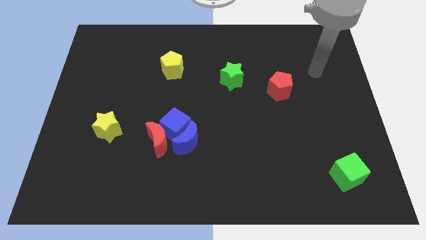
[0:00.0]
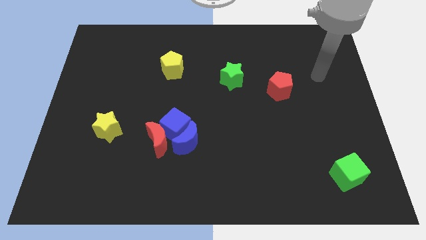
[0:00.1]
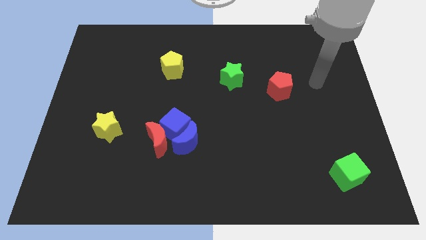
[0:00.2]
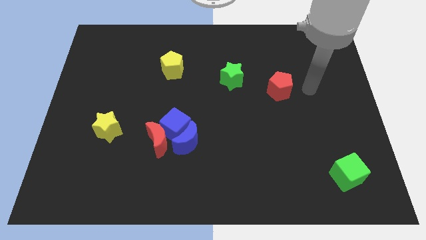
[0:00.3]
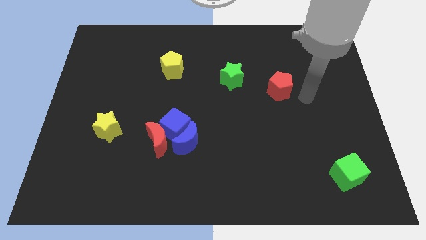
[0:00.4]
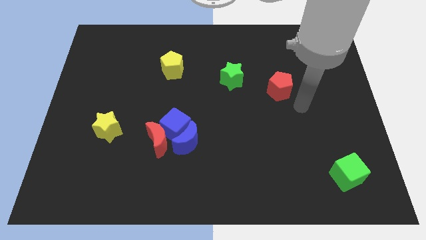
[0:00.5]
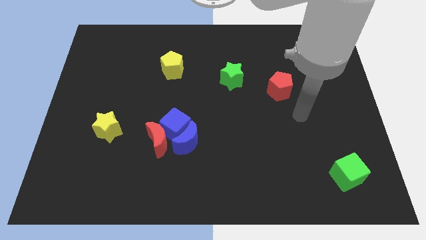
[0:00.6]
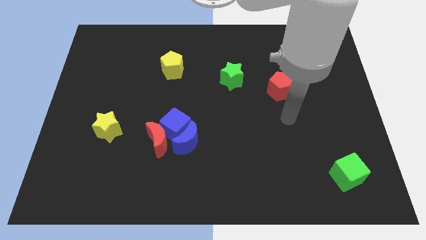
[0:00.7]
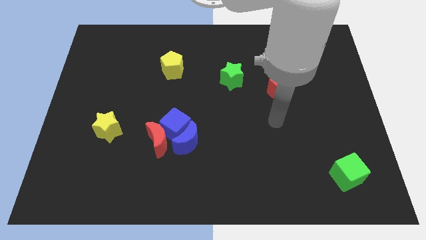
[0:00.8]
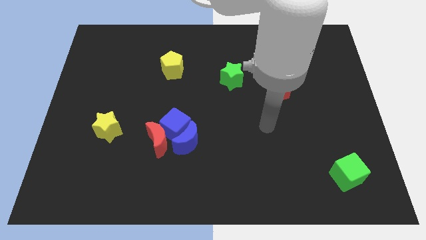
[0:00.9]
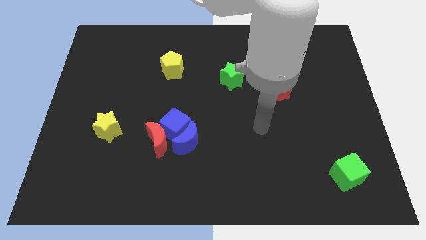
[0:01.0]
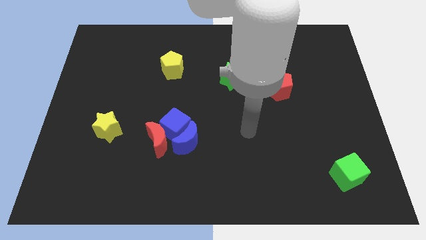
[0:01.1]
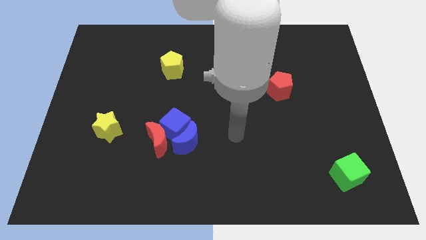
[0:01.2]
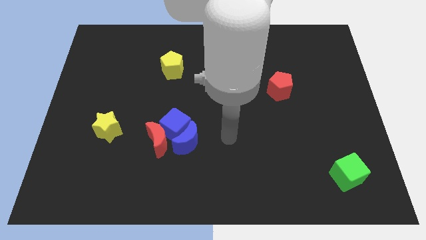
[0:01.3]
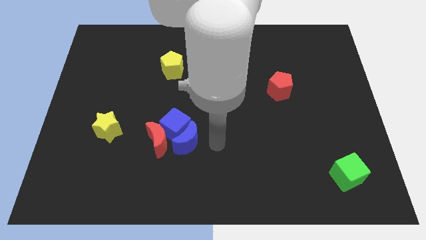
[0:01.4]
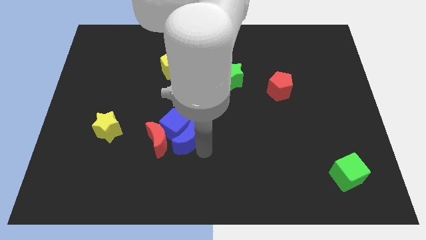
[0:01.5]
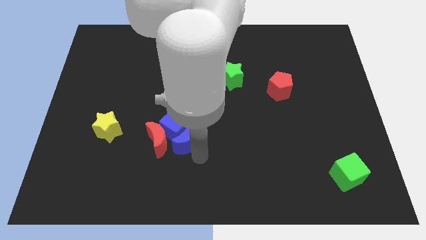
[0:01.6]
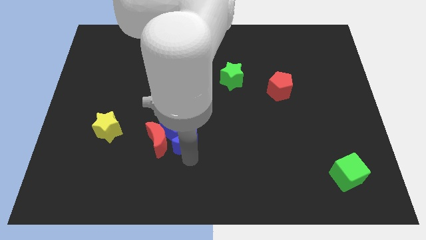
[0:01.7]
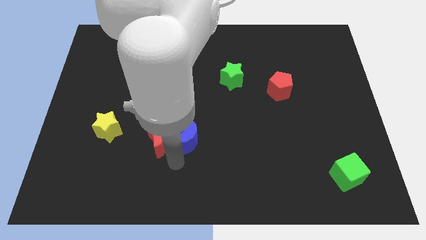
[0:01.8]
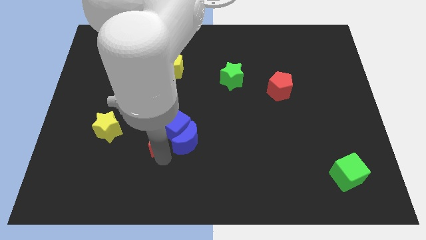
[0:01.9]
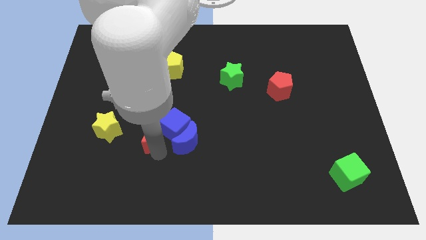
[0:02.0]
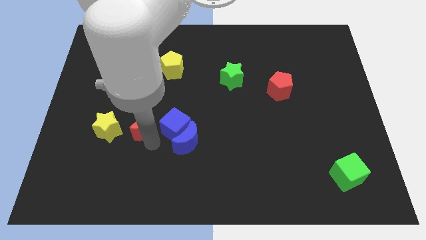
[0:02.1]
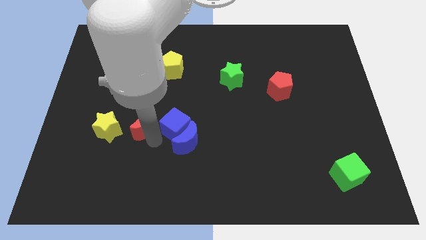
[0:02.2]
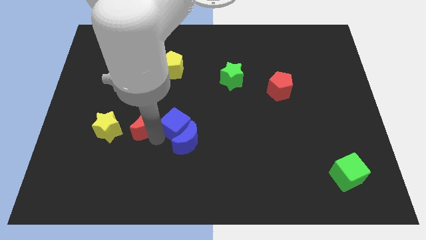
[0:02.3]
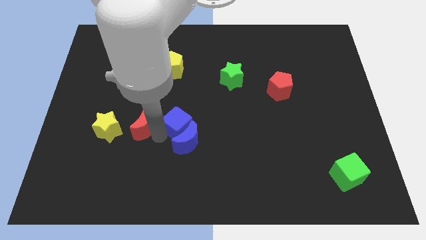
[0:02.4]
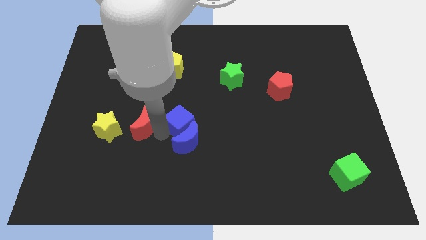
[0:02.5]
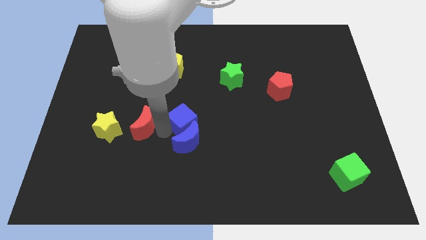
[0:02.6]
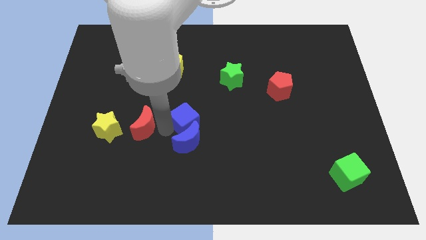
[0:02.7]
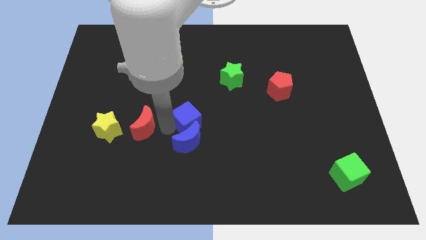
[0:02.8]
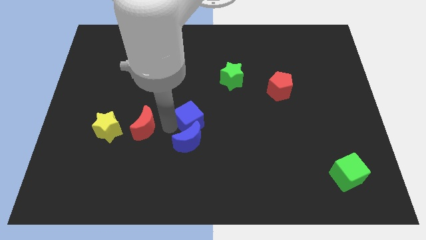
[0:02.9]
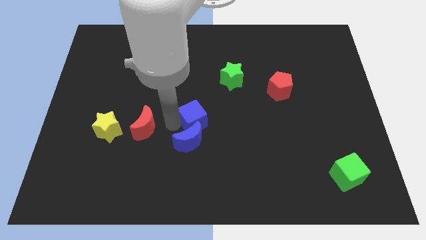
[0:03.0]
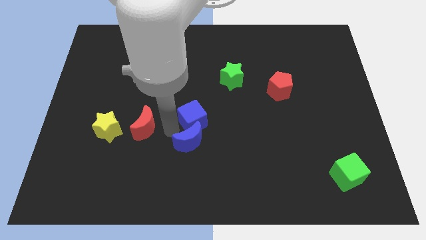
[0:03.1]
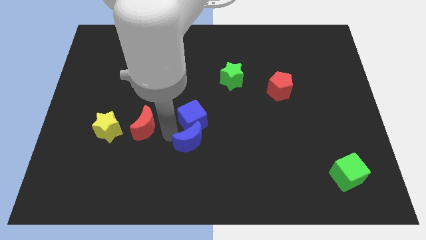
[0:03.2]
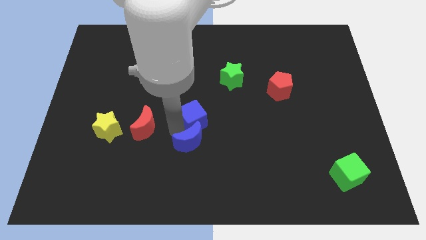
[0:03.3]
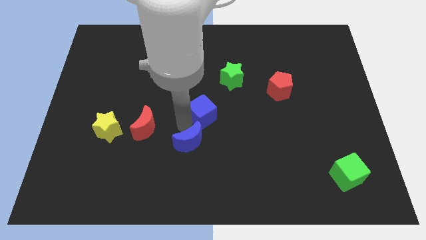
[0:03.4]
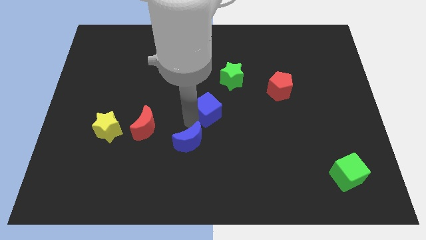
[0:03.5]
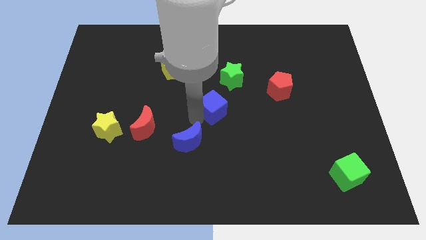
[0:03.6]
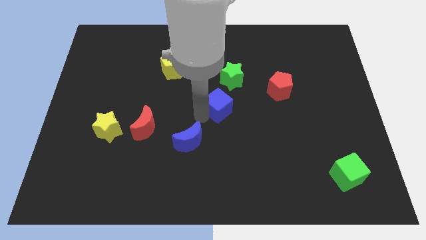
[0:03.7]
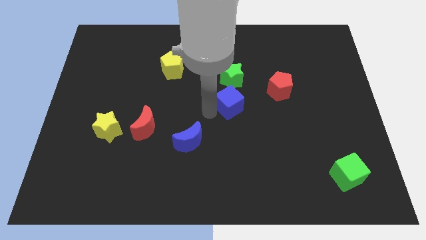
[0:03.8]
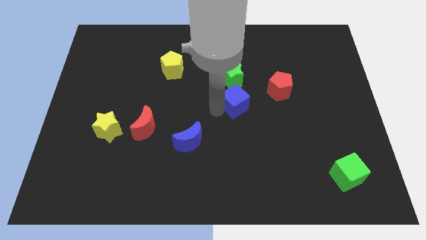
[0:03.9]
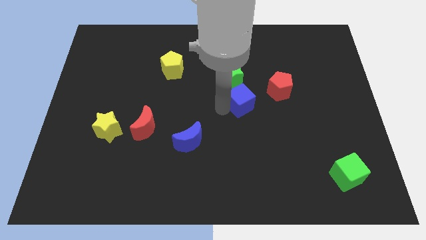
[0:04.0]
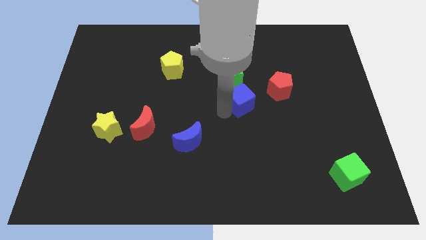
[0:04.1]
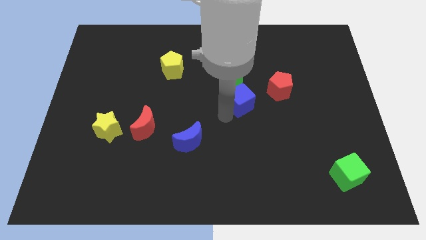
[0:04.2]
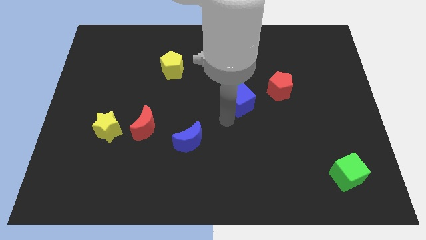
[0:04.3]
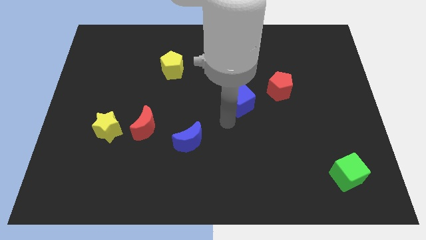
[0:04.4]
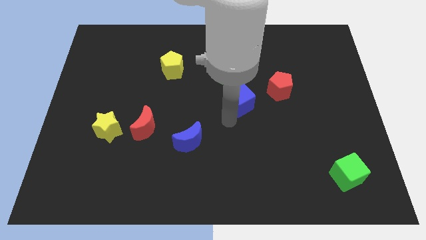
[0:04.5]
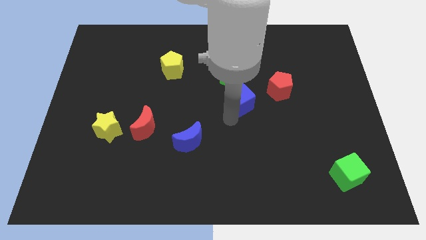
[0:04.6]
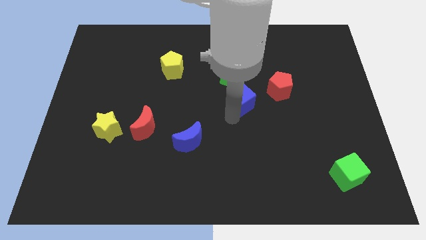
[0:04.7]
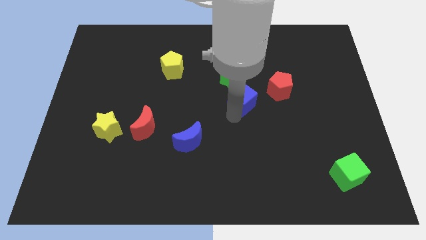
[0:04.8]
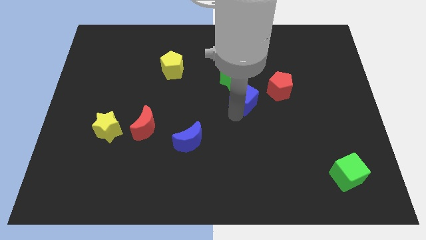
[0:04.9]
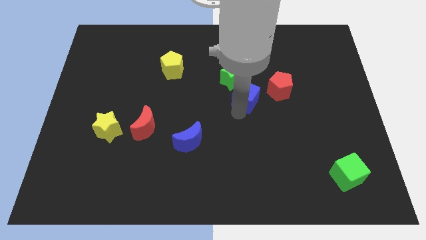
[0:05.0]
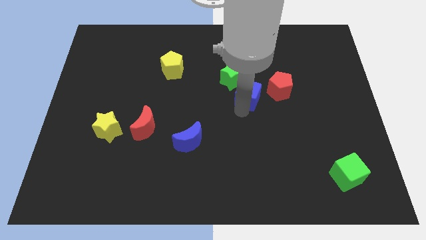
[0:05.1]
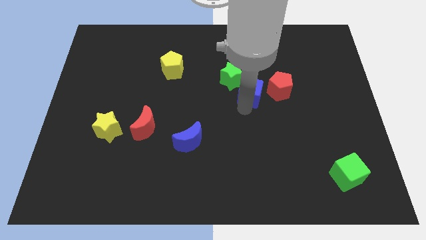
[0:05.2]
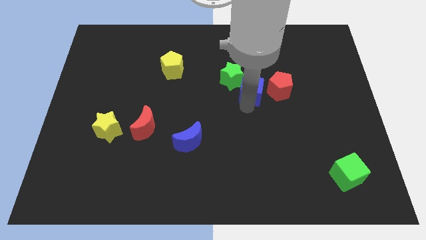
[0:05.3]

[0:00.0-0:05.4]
move the blue cube to the right side of the green star

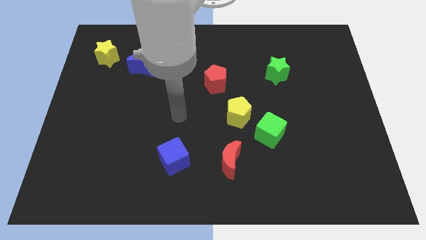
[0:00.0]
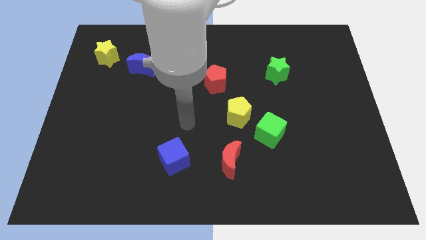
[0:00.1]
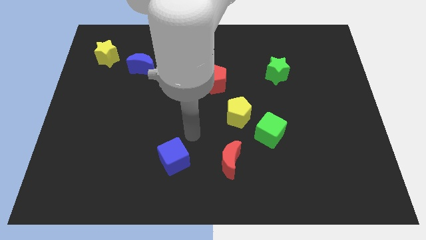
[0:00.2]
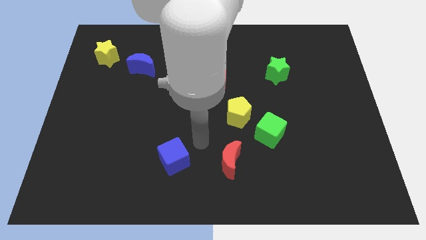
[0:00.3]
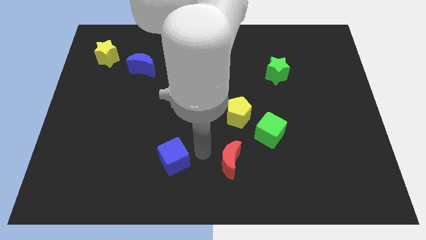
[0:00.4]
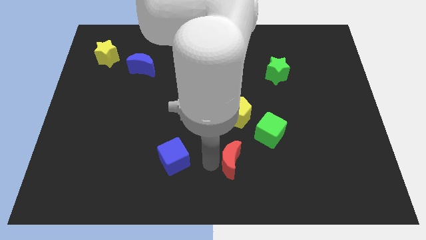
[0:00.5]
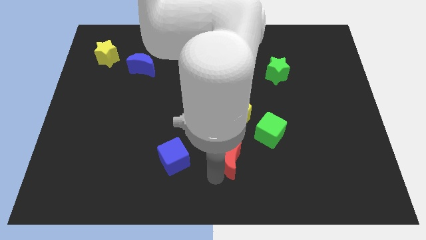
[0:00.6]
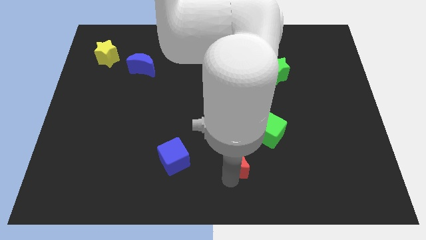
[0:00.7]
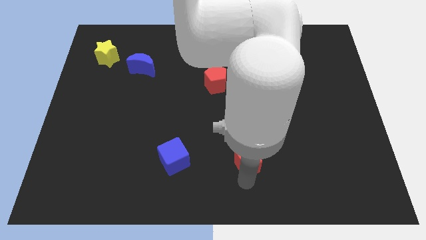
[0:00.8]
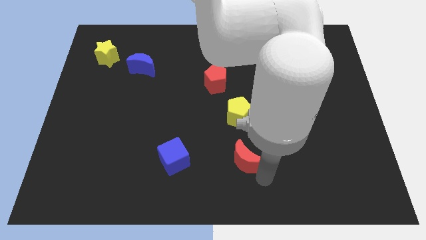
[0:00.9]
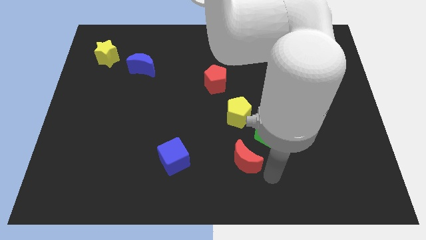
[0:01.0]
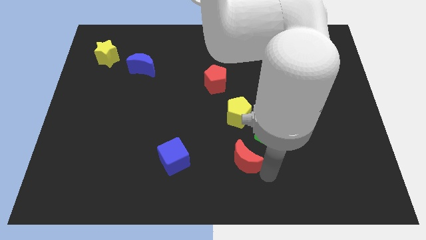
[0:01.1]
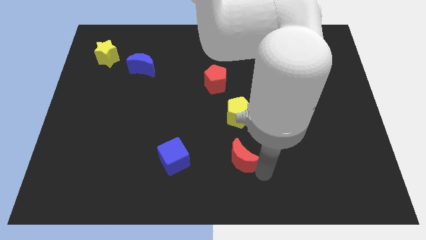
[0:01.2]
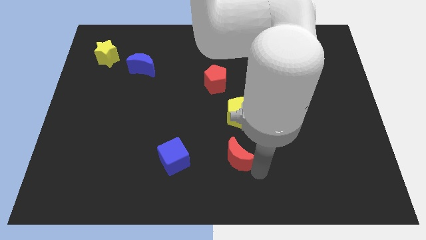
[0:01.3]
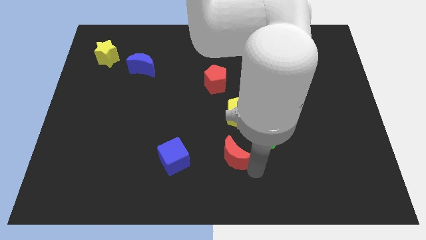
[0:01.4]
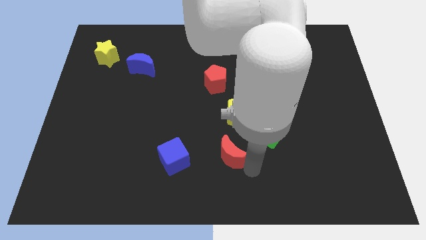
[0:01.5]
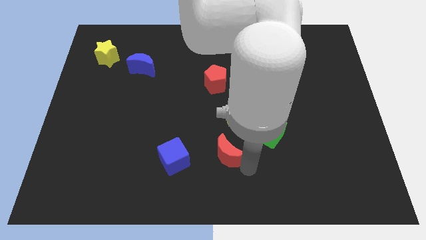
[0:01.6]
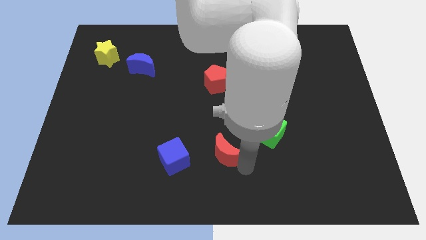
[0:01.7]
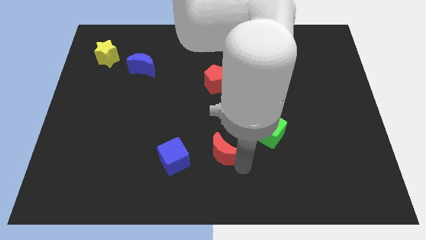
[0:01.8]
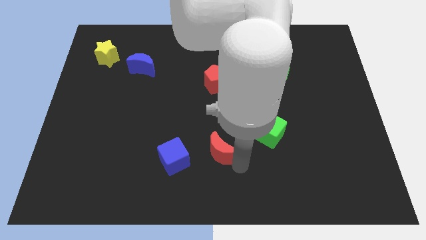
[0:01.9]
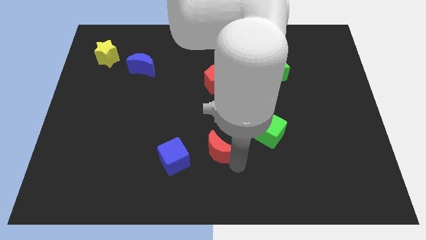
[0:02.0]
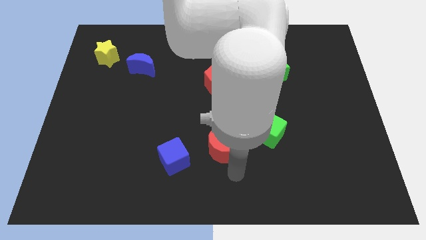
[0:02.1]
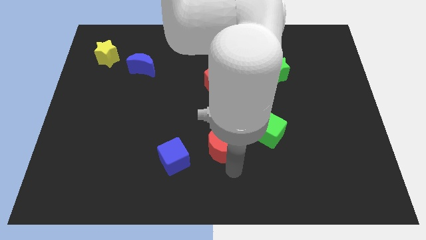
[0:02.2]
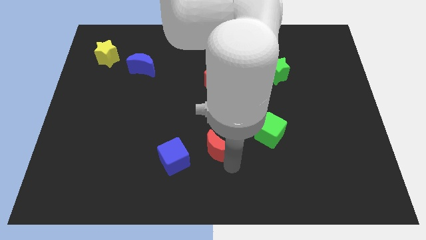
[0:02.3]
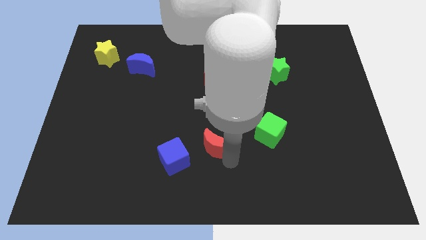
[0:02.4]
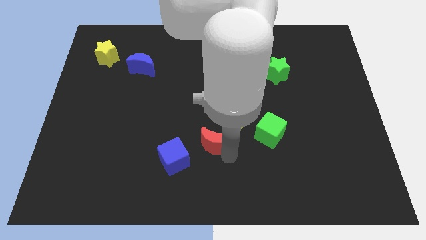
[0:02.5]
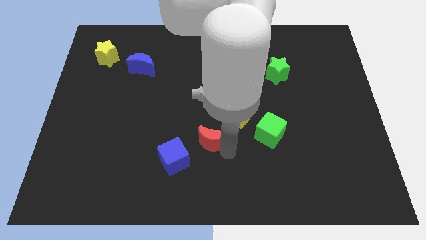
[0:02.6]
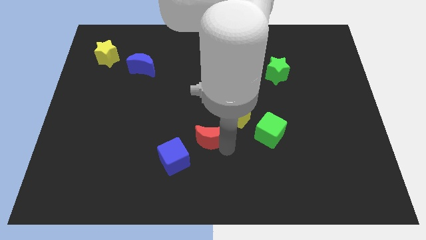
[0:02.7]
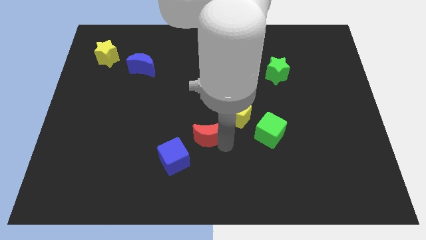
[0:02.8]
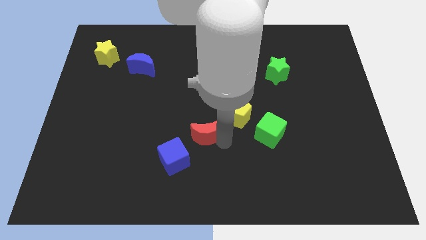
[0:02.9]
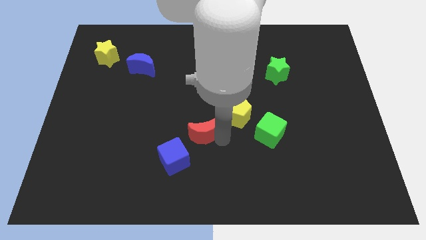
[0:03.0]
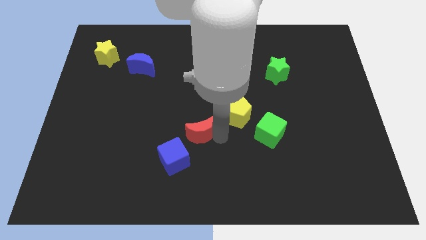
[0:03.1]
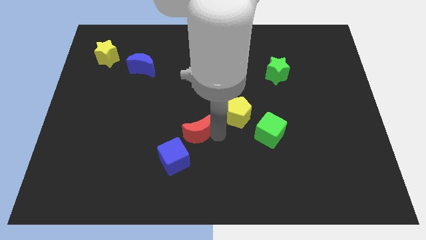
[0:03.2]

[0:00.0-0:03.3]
move the red moon left of the yellow pentagon
